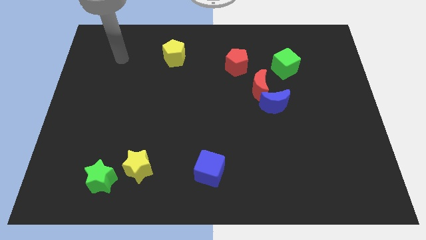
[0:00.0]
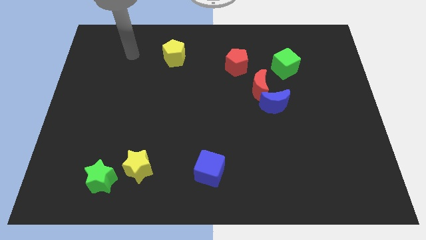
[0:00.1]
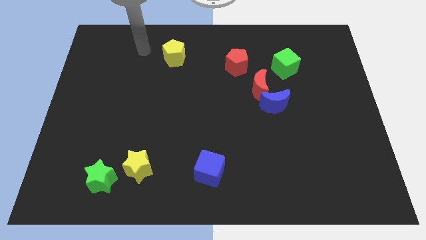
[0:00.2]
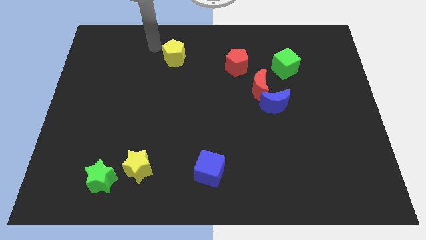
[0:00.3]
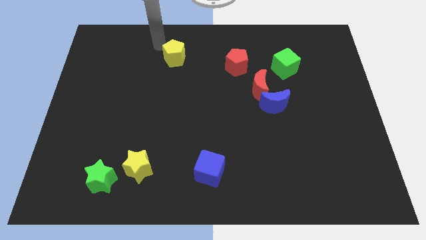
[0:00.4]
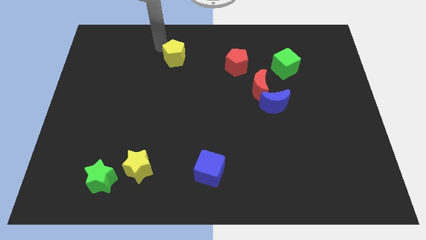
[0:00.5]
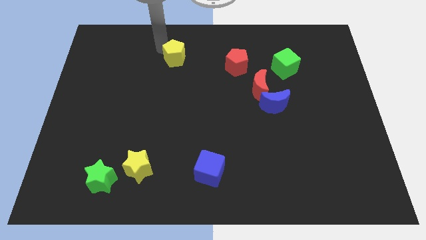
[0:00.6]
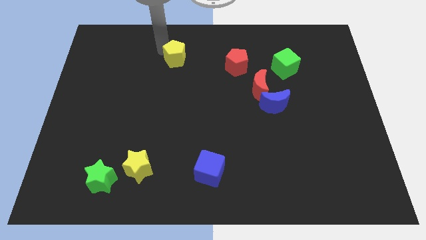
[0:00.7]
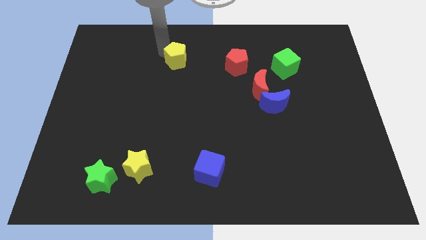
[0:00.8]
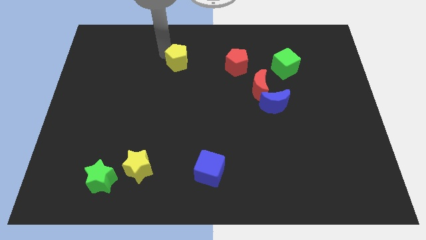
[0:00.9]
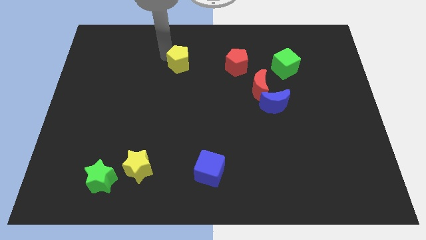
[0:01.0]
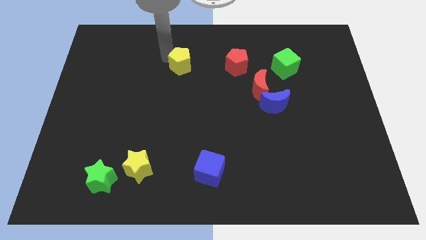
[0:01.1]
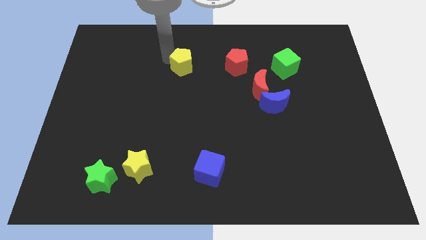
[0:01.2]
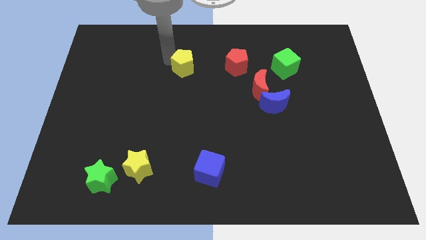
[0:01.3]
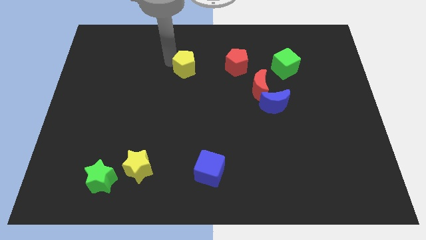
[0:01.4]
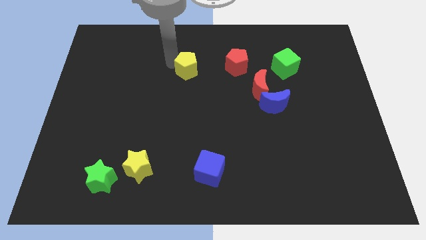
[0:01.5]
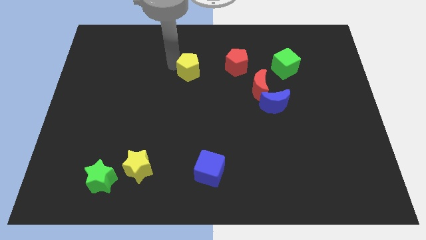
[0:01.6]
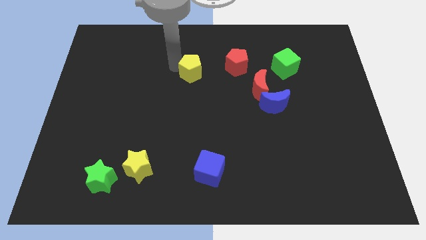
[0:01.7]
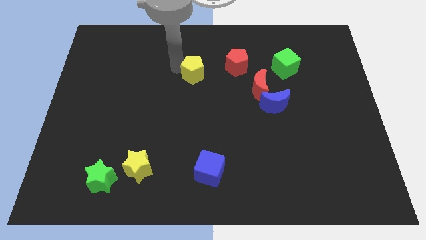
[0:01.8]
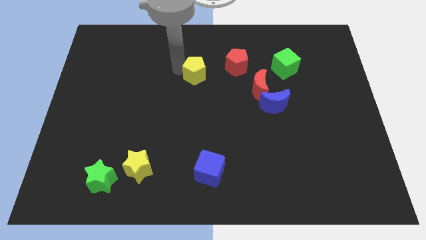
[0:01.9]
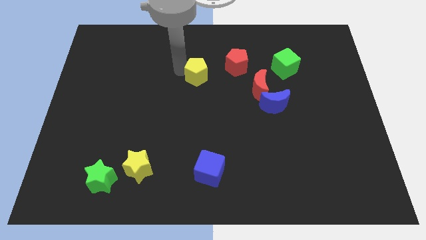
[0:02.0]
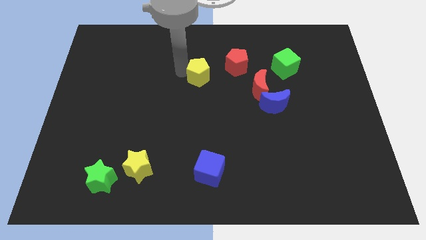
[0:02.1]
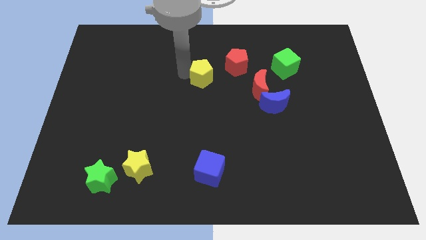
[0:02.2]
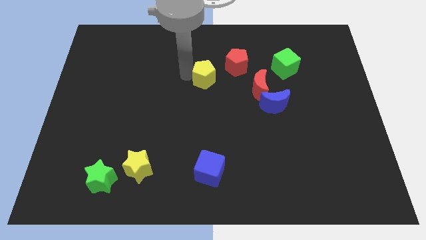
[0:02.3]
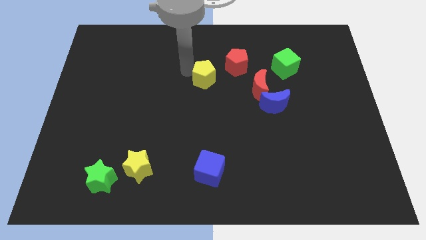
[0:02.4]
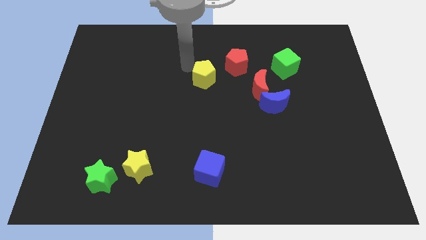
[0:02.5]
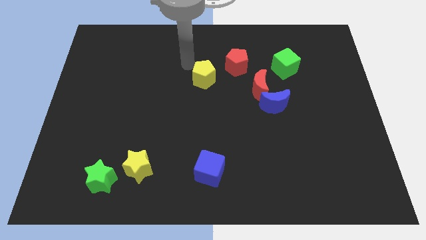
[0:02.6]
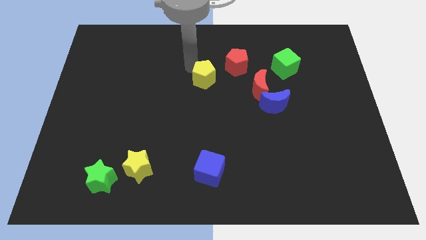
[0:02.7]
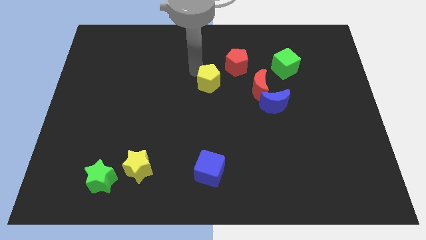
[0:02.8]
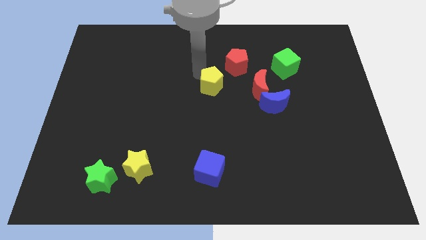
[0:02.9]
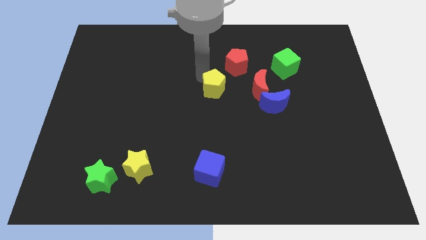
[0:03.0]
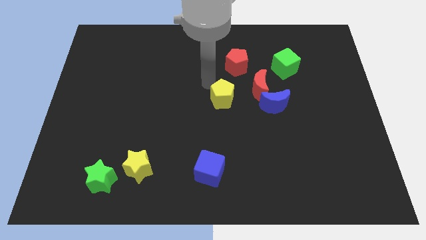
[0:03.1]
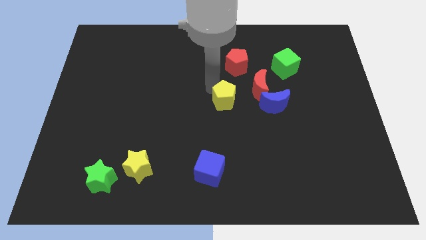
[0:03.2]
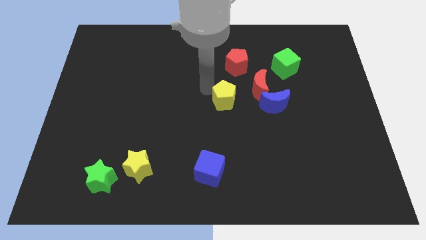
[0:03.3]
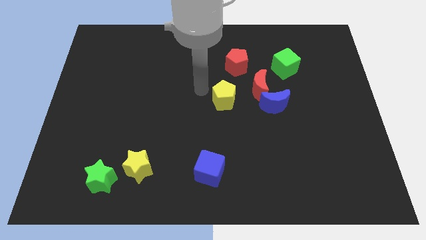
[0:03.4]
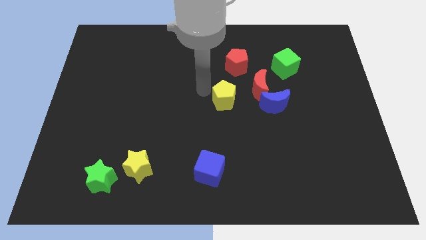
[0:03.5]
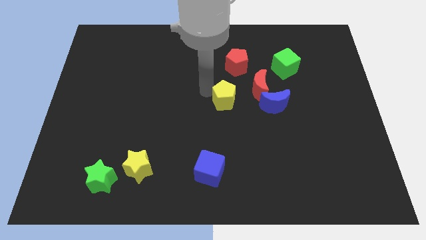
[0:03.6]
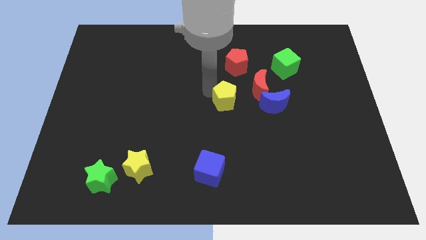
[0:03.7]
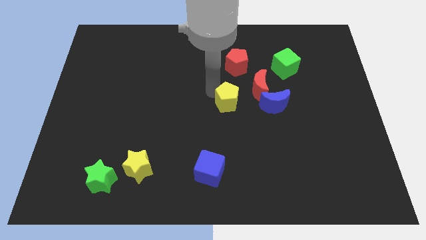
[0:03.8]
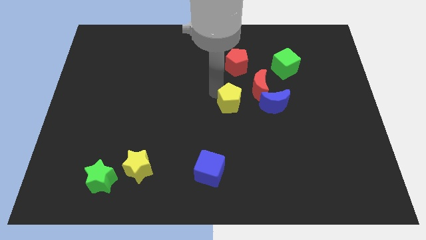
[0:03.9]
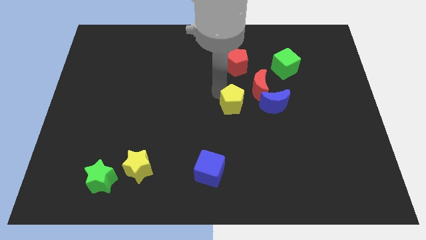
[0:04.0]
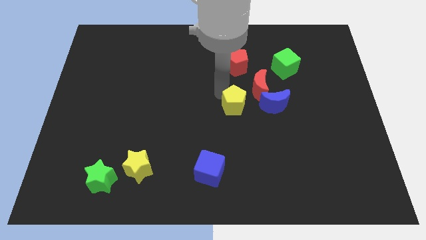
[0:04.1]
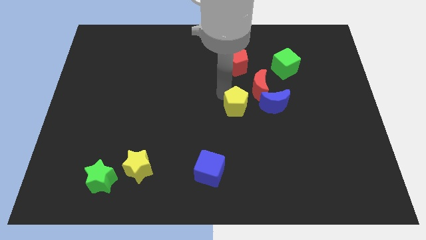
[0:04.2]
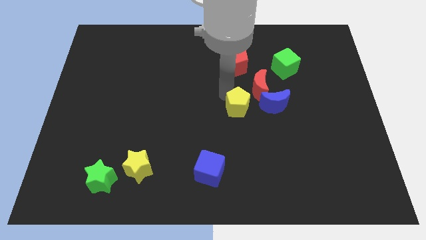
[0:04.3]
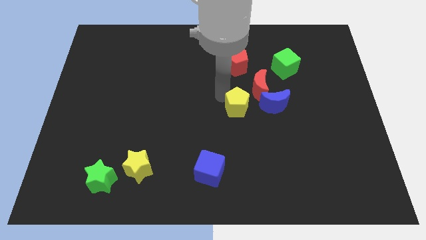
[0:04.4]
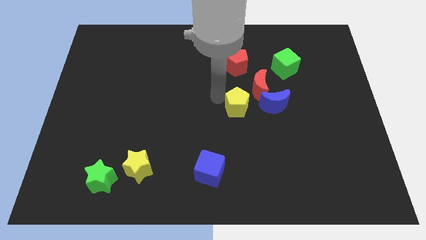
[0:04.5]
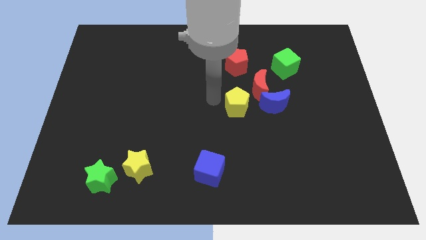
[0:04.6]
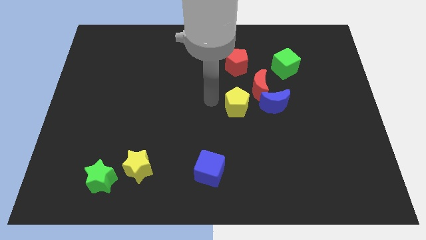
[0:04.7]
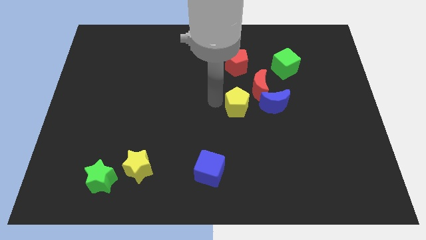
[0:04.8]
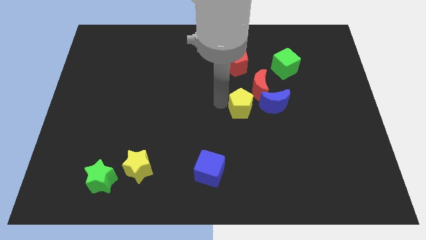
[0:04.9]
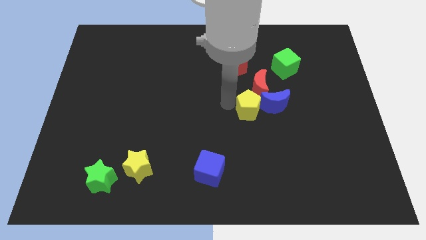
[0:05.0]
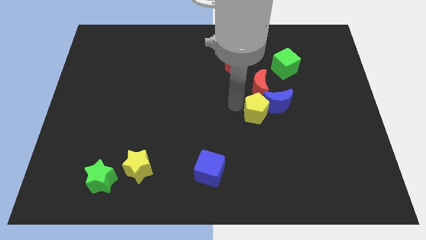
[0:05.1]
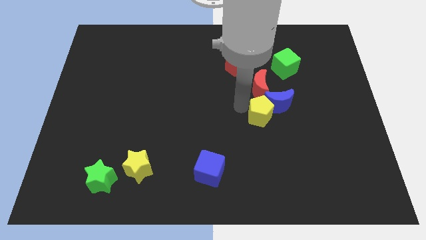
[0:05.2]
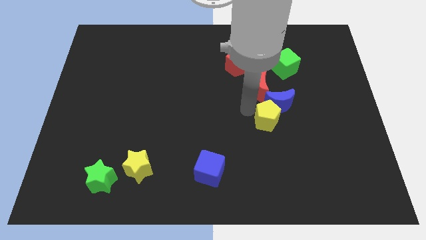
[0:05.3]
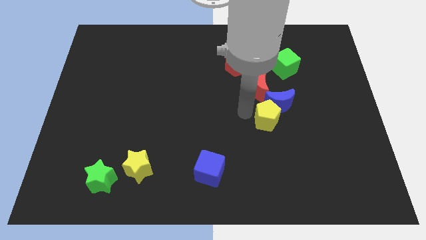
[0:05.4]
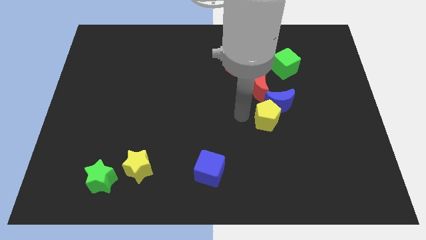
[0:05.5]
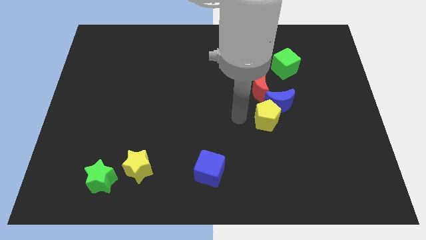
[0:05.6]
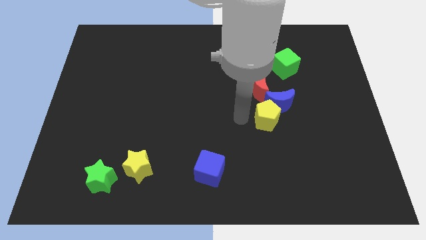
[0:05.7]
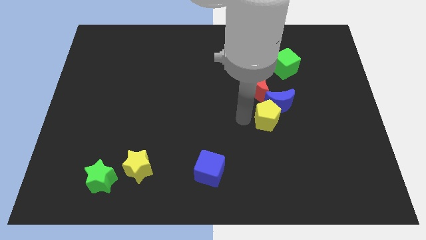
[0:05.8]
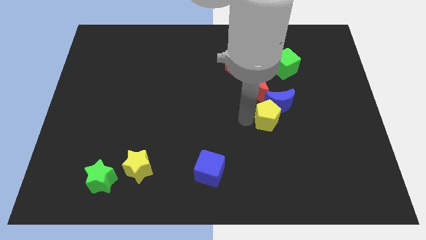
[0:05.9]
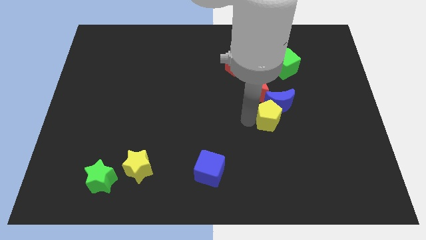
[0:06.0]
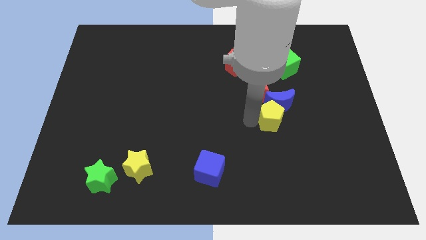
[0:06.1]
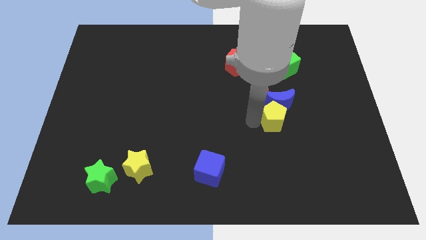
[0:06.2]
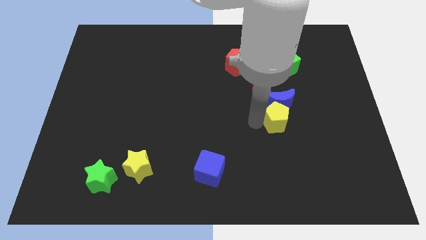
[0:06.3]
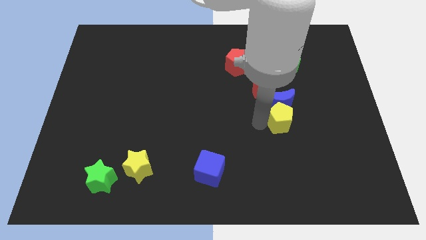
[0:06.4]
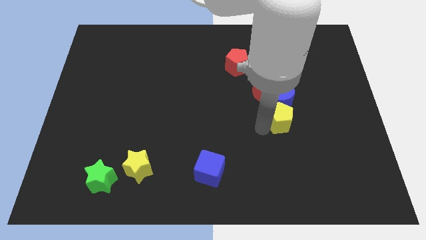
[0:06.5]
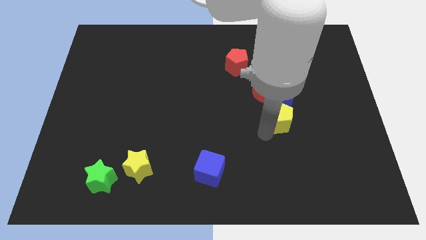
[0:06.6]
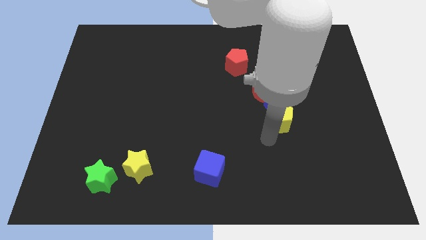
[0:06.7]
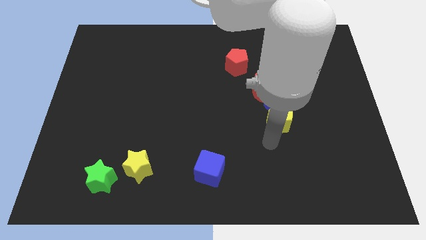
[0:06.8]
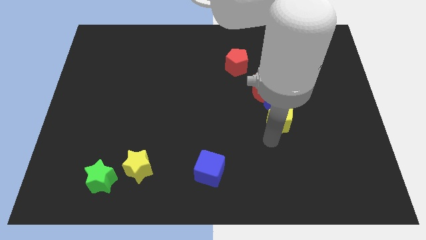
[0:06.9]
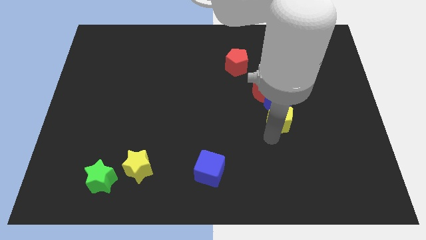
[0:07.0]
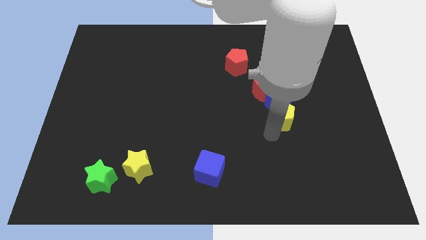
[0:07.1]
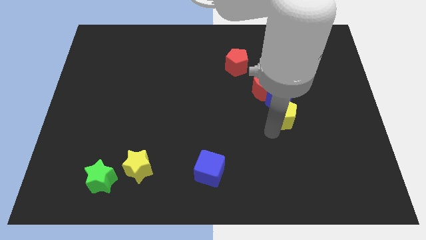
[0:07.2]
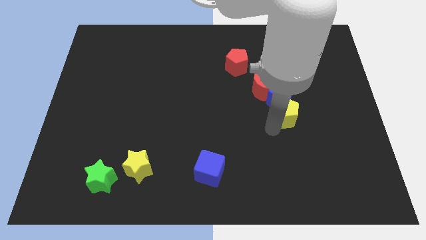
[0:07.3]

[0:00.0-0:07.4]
put the yellow pentagon below the green cube
